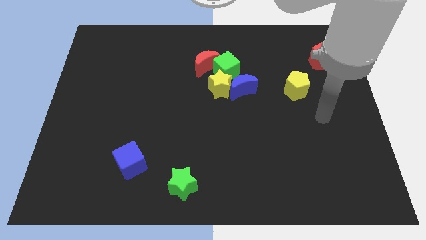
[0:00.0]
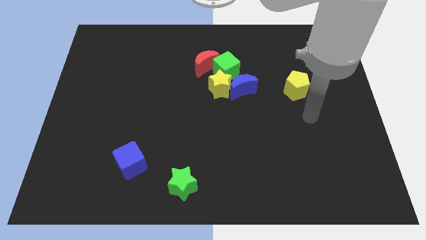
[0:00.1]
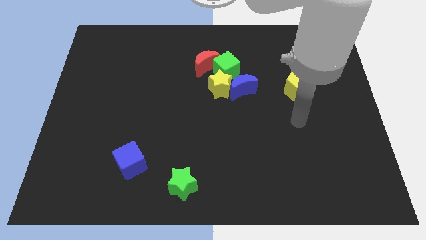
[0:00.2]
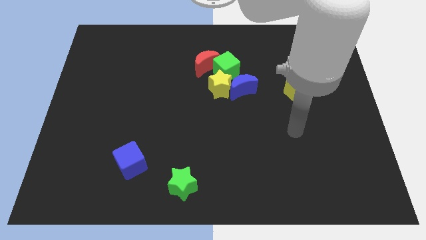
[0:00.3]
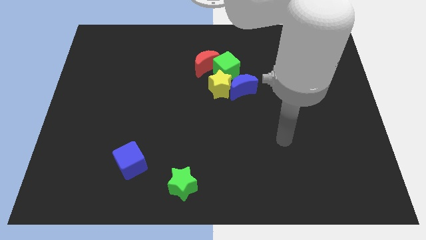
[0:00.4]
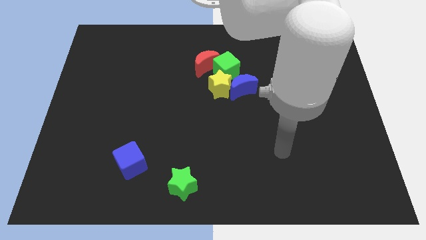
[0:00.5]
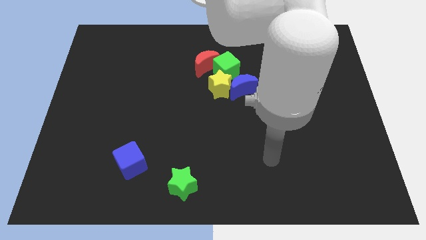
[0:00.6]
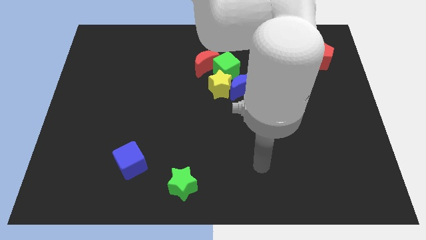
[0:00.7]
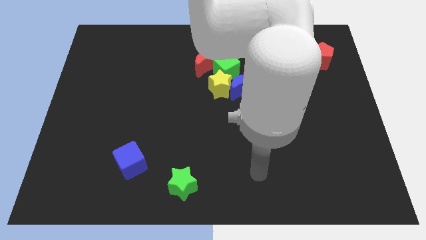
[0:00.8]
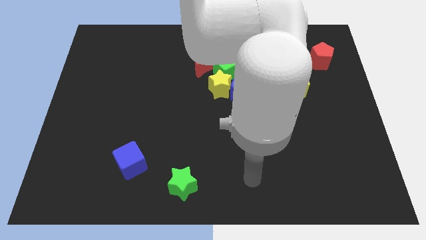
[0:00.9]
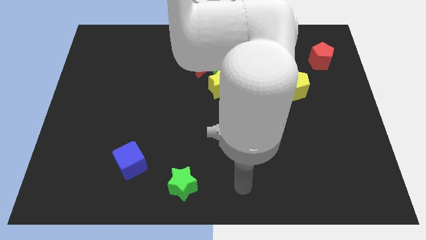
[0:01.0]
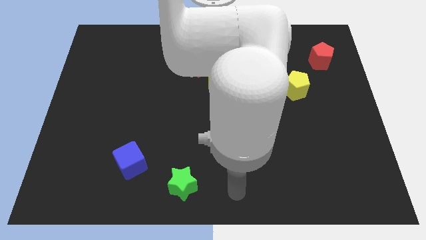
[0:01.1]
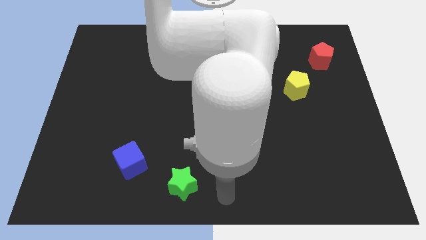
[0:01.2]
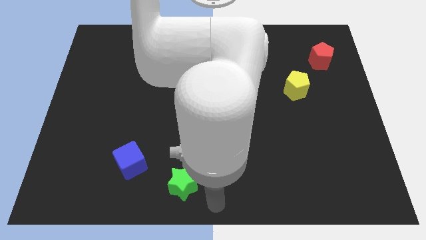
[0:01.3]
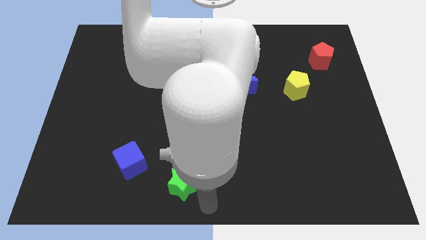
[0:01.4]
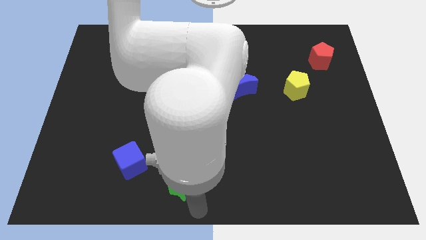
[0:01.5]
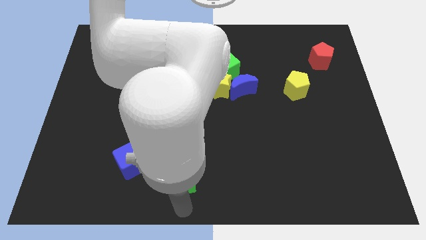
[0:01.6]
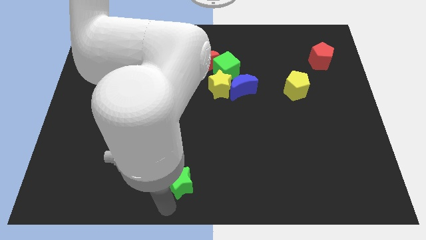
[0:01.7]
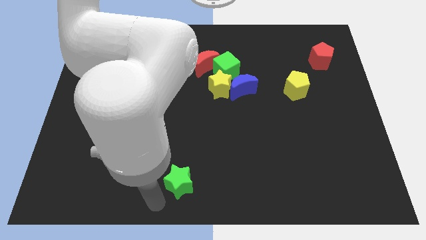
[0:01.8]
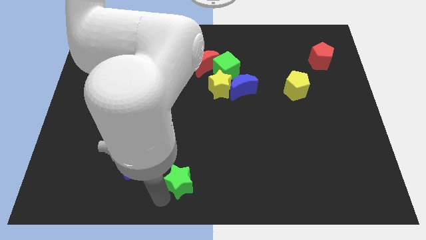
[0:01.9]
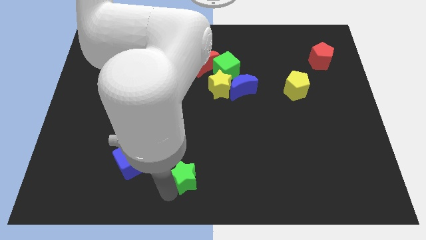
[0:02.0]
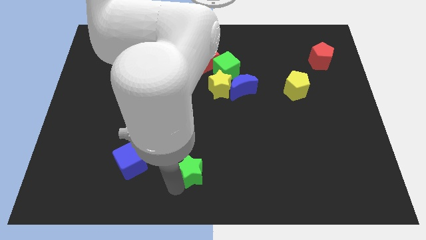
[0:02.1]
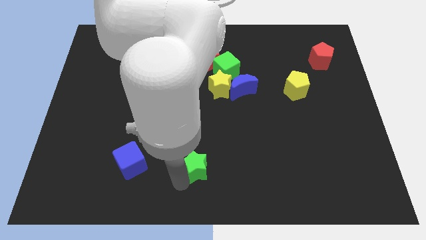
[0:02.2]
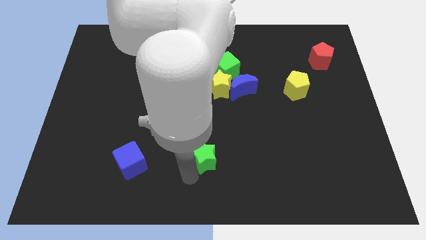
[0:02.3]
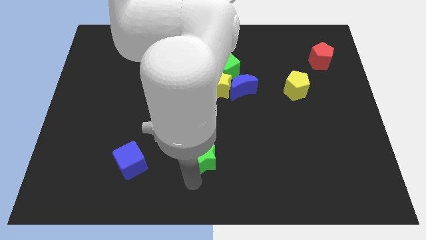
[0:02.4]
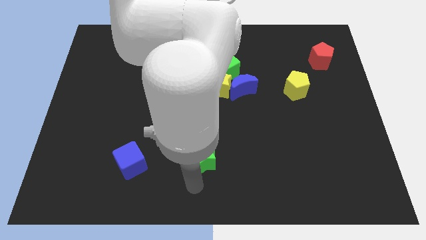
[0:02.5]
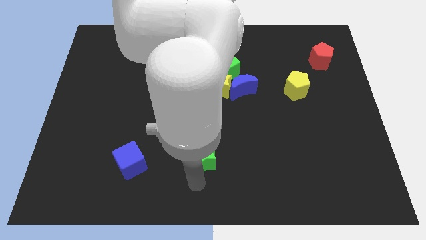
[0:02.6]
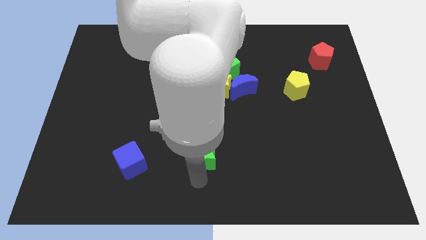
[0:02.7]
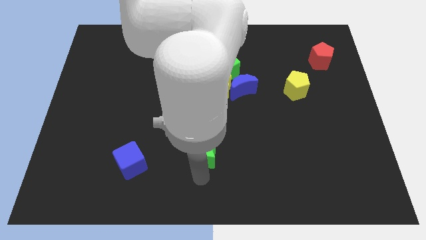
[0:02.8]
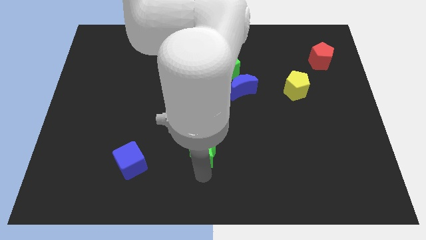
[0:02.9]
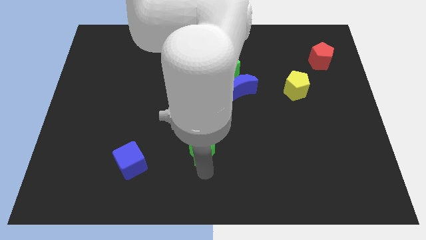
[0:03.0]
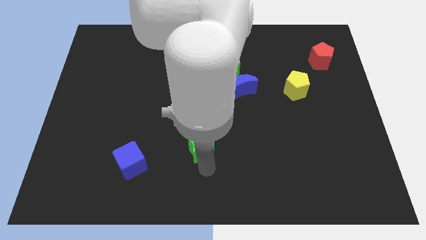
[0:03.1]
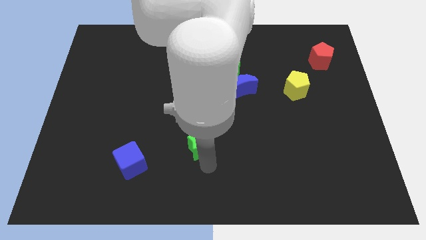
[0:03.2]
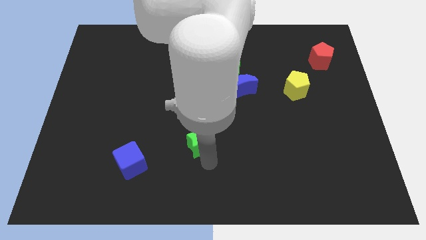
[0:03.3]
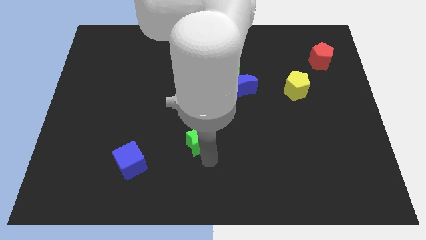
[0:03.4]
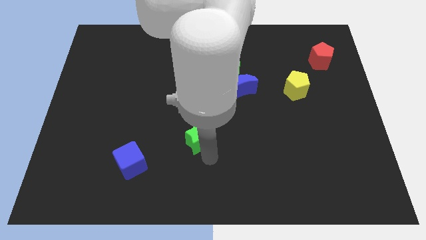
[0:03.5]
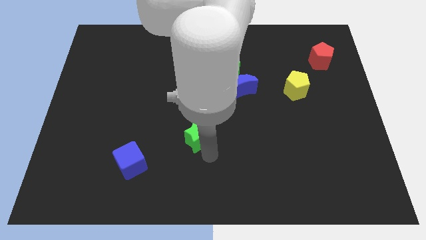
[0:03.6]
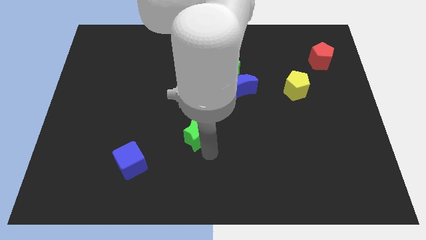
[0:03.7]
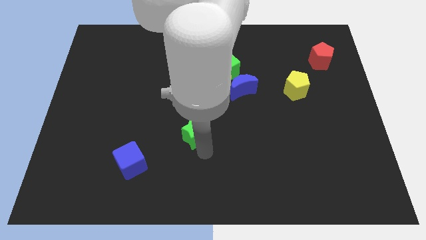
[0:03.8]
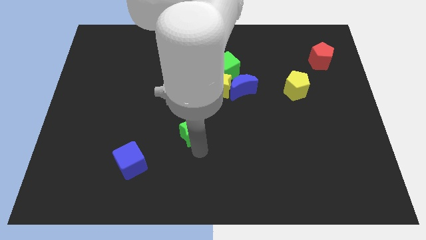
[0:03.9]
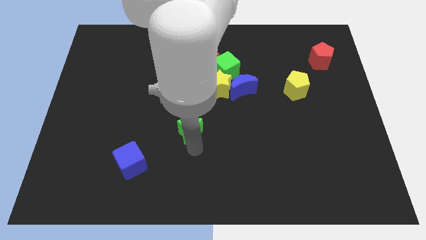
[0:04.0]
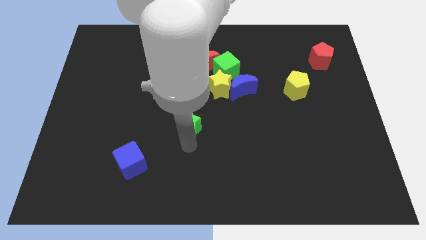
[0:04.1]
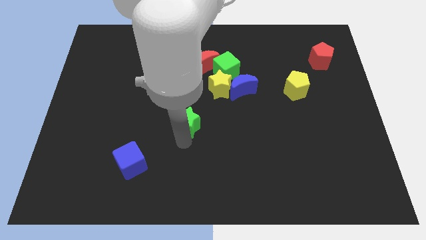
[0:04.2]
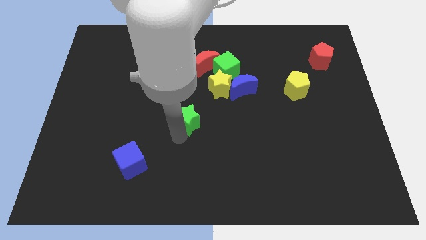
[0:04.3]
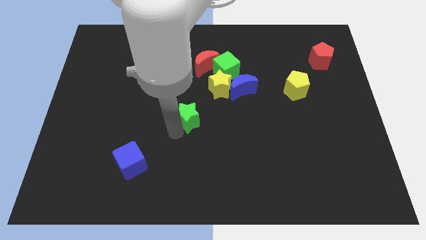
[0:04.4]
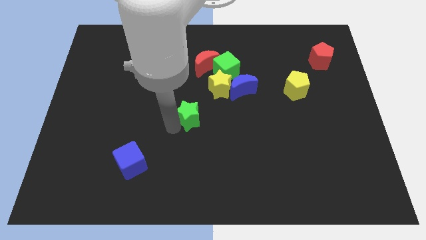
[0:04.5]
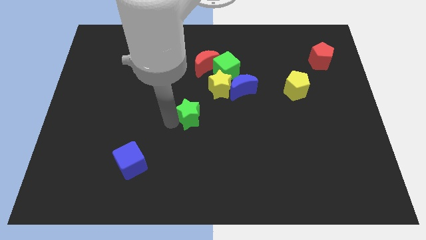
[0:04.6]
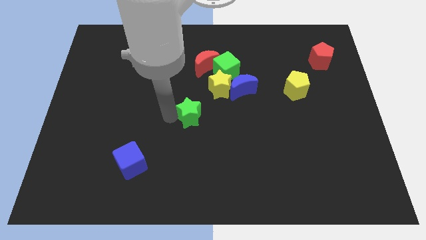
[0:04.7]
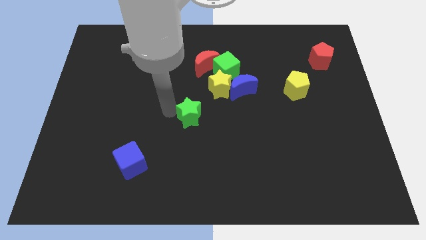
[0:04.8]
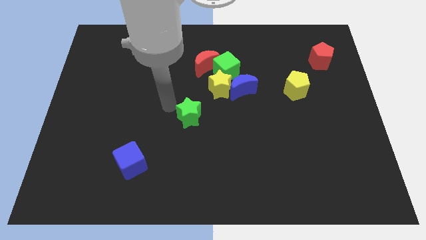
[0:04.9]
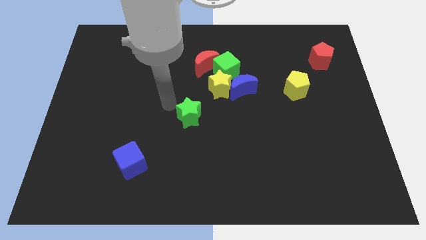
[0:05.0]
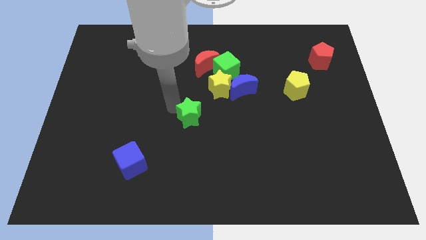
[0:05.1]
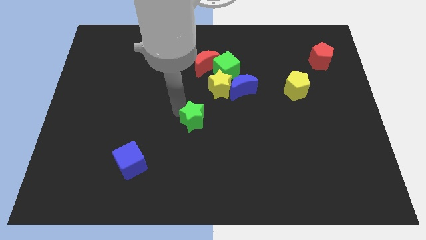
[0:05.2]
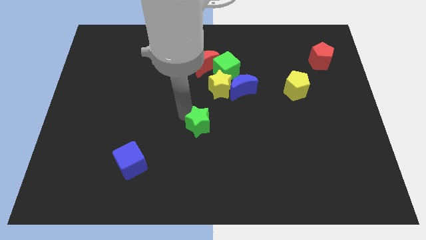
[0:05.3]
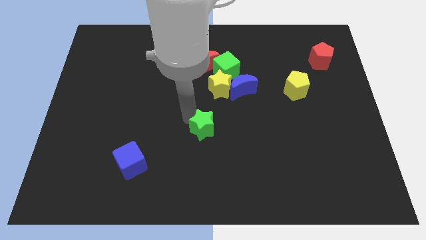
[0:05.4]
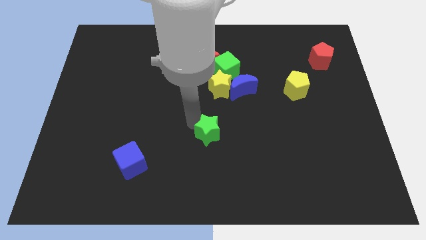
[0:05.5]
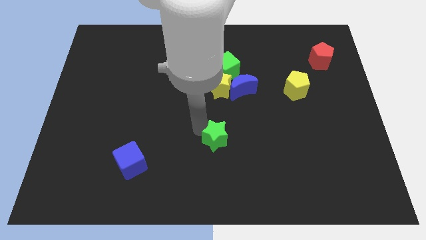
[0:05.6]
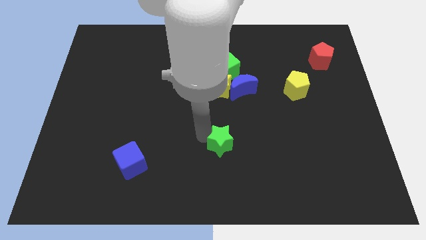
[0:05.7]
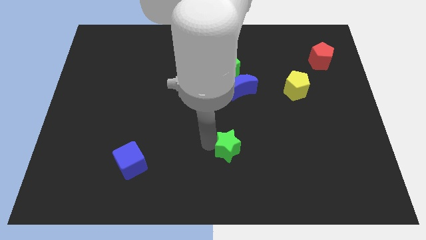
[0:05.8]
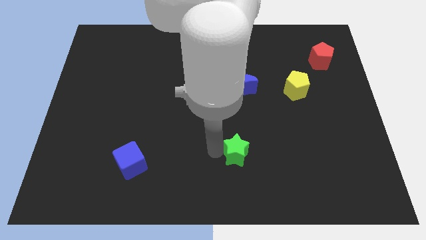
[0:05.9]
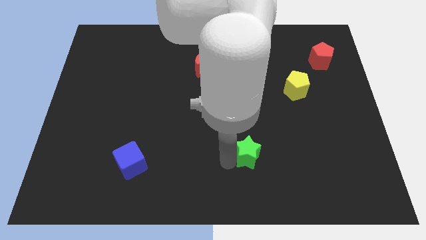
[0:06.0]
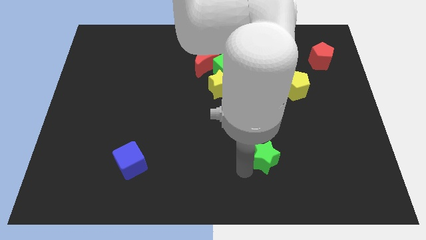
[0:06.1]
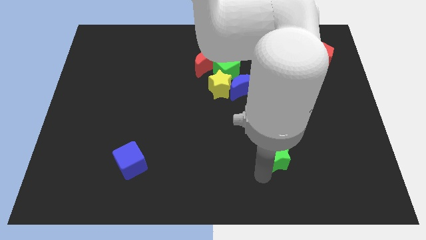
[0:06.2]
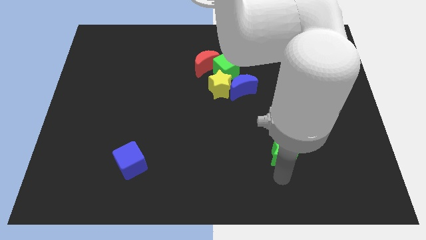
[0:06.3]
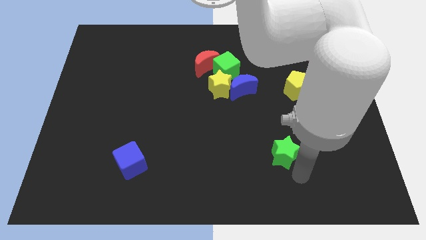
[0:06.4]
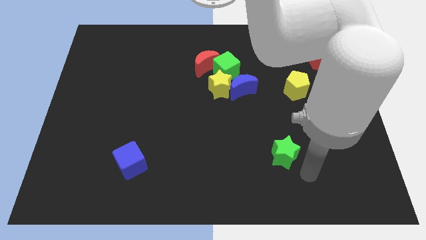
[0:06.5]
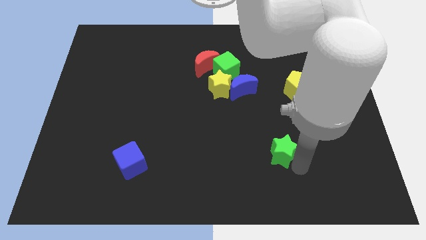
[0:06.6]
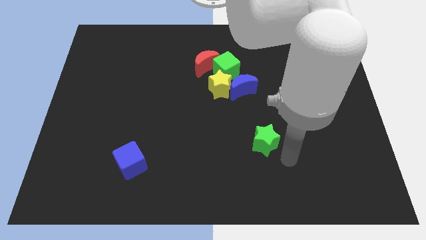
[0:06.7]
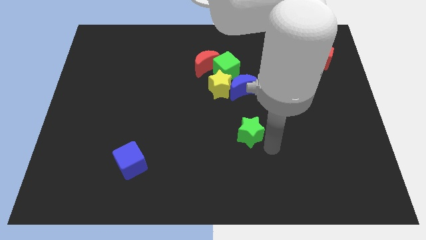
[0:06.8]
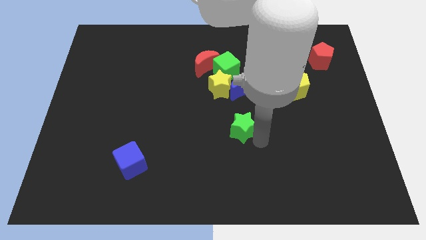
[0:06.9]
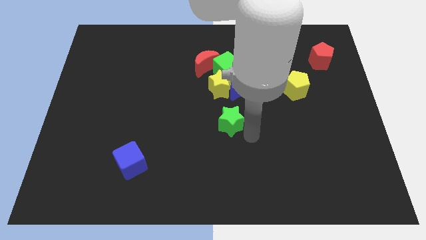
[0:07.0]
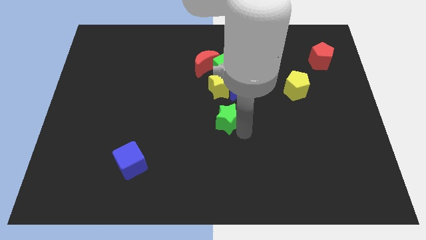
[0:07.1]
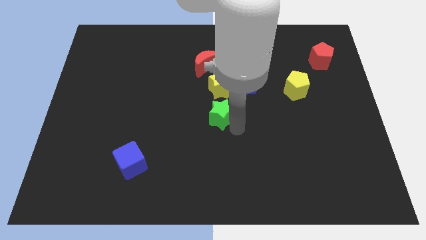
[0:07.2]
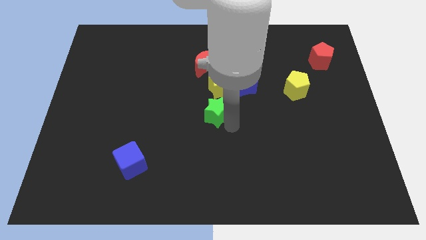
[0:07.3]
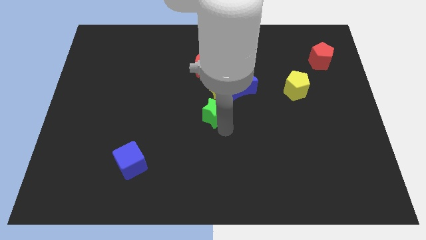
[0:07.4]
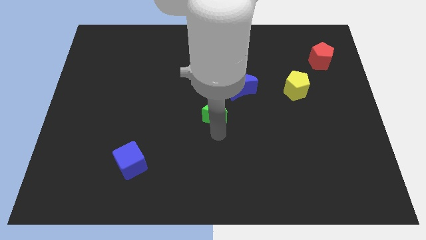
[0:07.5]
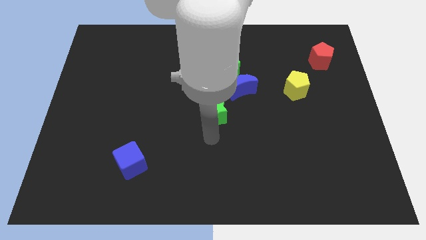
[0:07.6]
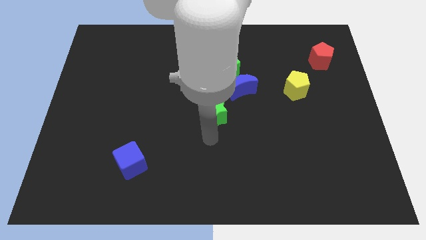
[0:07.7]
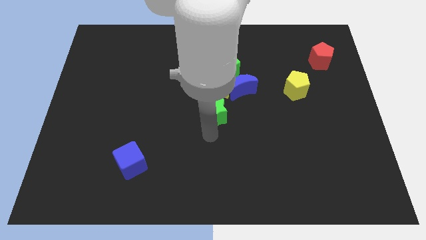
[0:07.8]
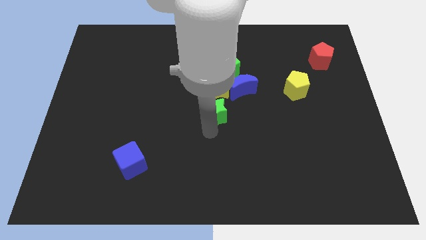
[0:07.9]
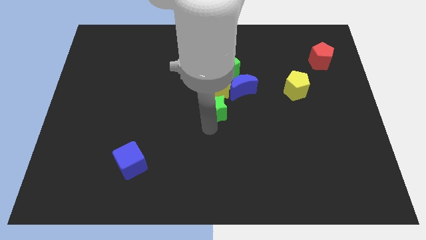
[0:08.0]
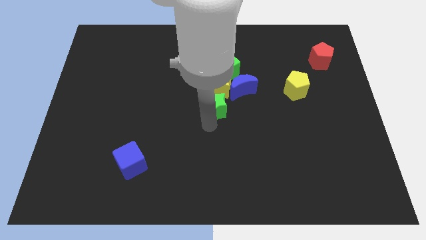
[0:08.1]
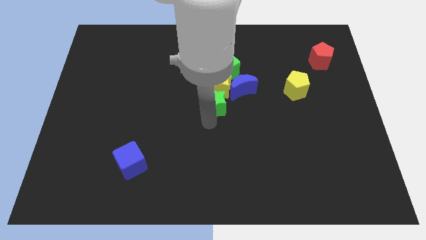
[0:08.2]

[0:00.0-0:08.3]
put the green star towards the yellow star
